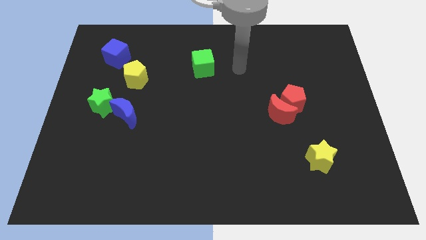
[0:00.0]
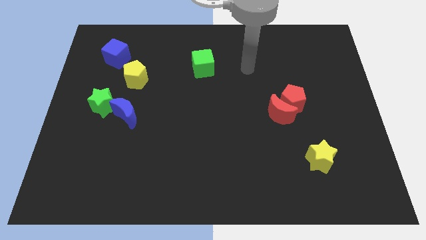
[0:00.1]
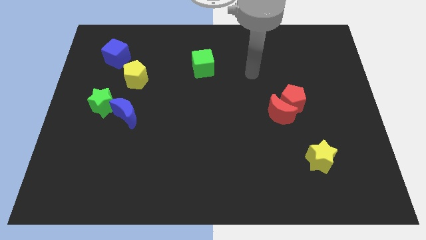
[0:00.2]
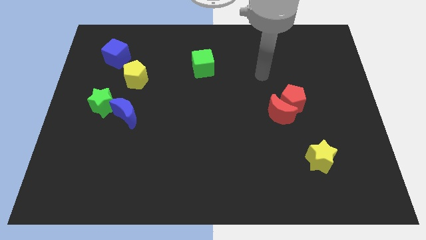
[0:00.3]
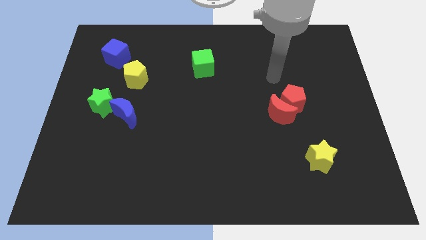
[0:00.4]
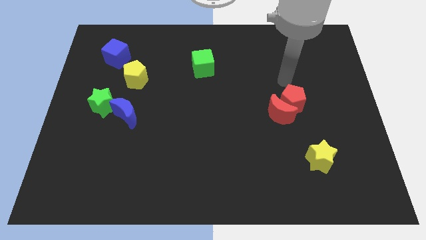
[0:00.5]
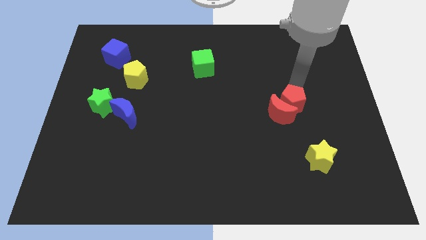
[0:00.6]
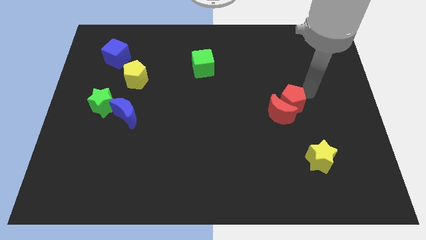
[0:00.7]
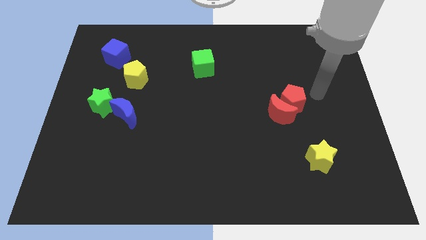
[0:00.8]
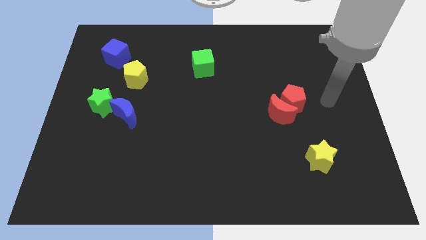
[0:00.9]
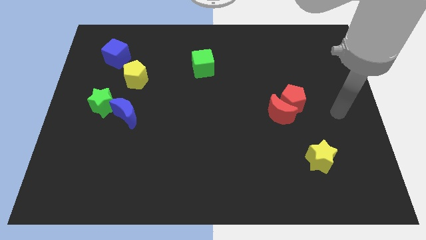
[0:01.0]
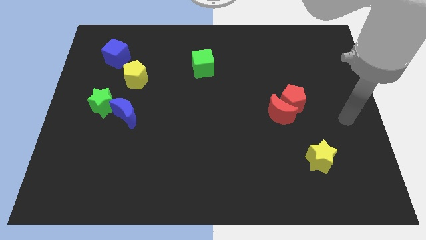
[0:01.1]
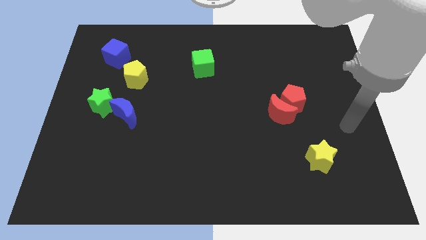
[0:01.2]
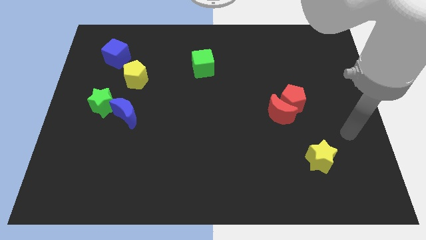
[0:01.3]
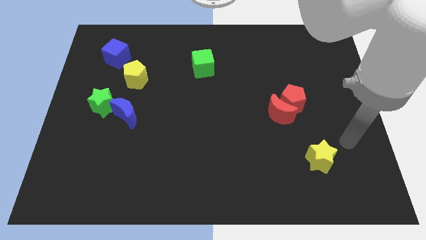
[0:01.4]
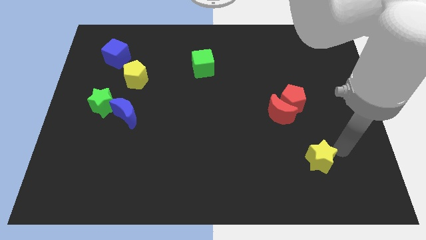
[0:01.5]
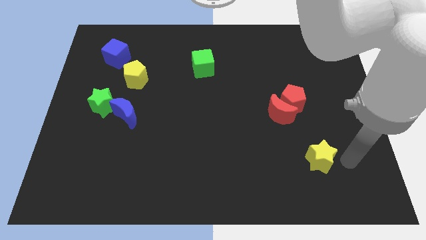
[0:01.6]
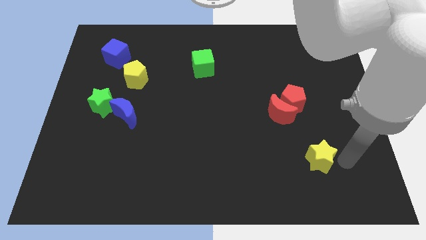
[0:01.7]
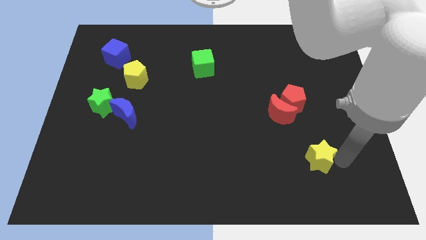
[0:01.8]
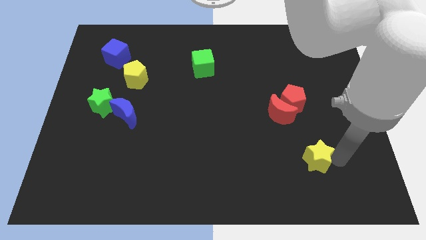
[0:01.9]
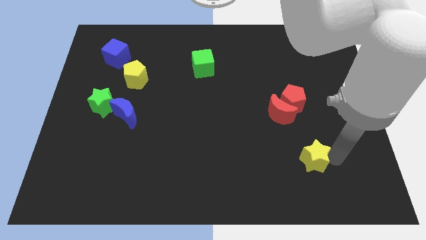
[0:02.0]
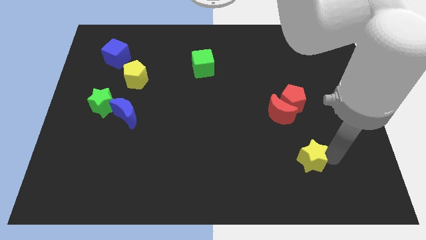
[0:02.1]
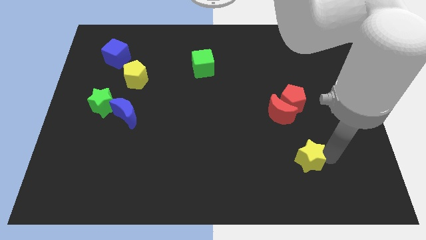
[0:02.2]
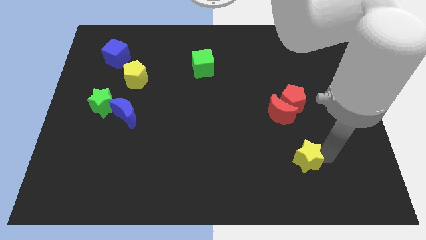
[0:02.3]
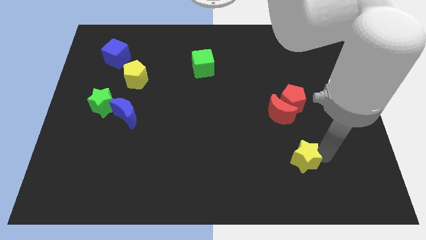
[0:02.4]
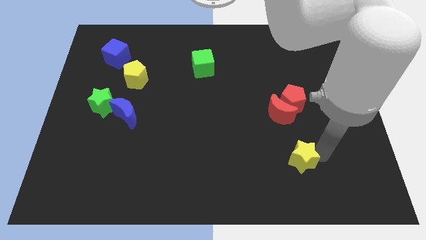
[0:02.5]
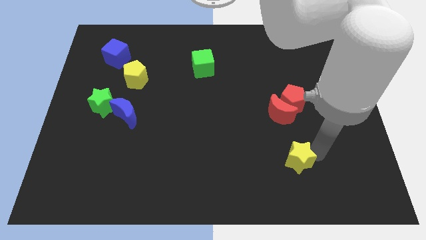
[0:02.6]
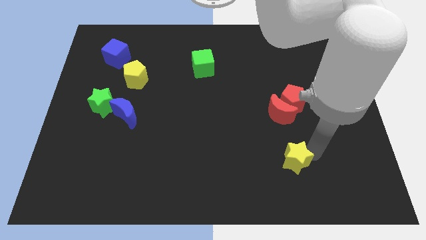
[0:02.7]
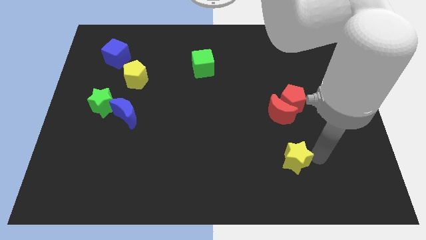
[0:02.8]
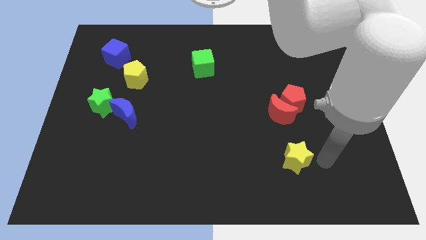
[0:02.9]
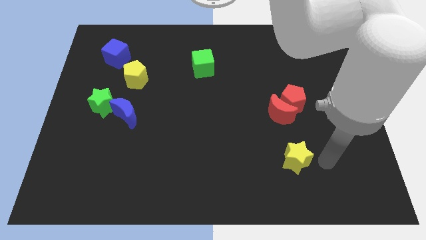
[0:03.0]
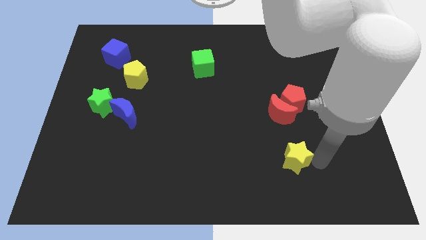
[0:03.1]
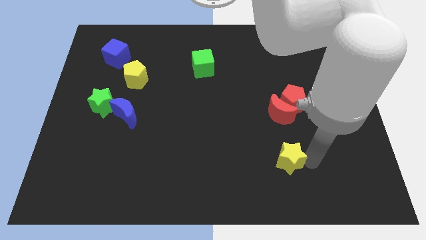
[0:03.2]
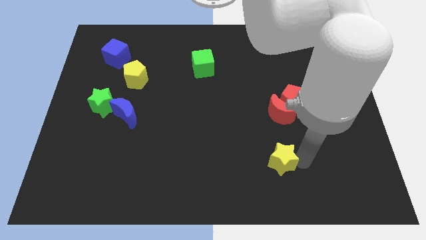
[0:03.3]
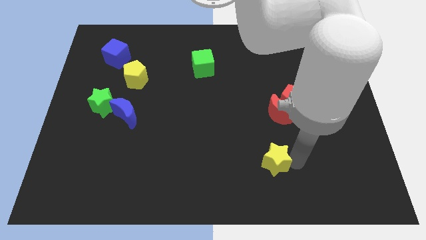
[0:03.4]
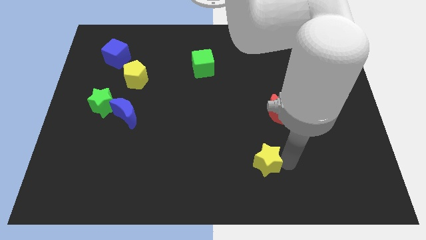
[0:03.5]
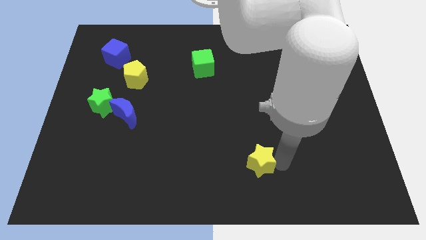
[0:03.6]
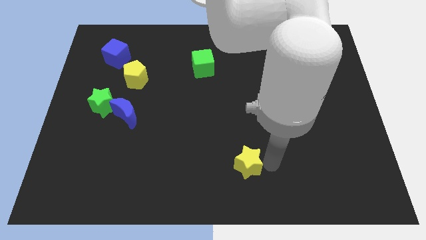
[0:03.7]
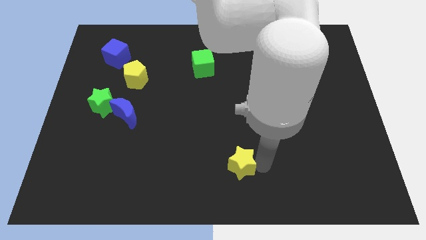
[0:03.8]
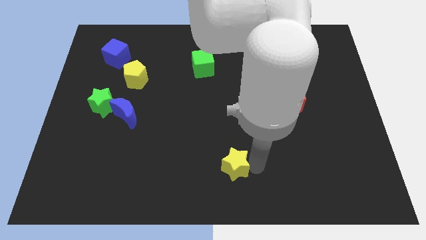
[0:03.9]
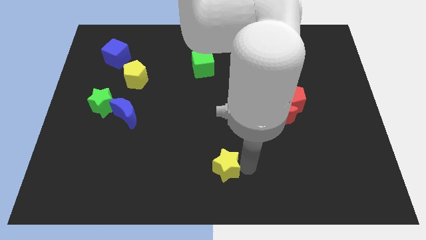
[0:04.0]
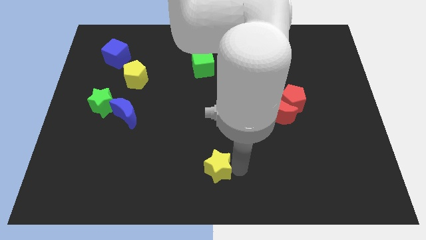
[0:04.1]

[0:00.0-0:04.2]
move the yellow star left

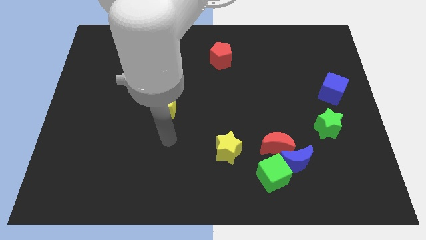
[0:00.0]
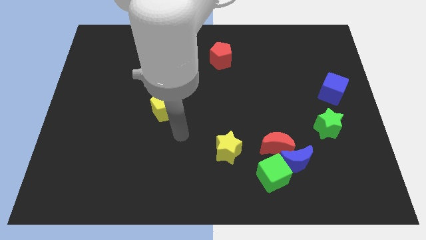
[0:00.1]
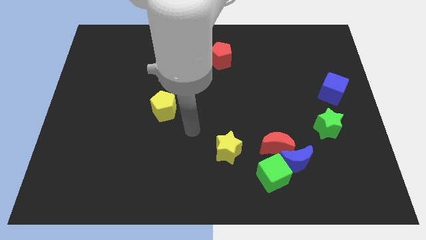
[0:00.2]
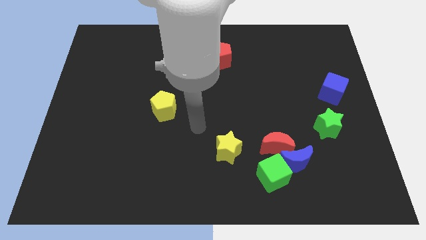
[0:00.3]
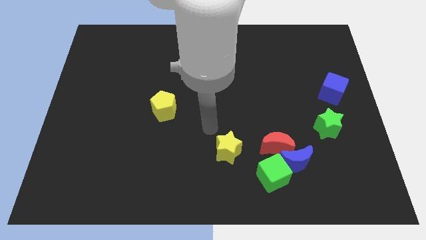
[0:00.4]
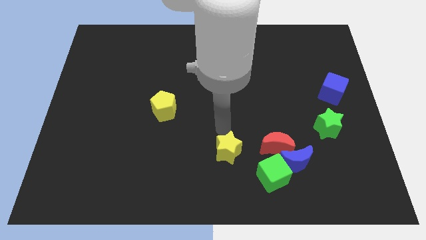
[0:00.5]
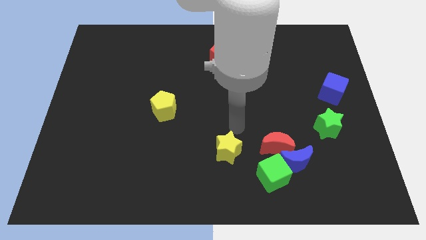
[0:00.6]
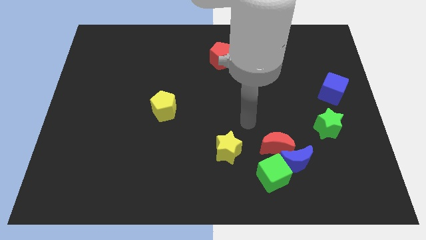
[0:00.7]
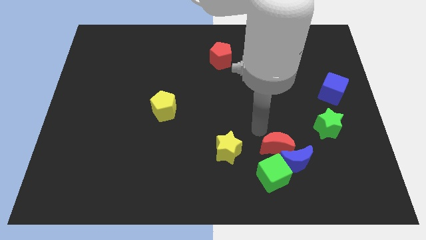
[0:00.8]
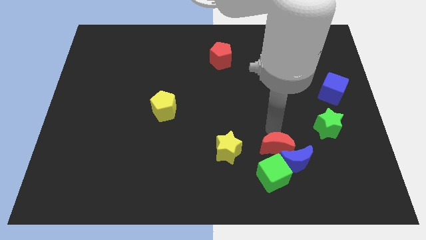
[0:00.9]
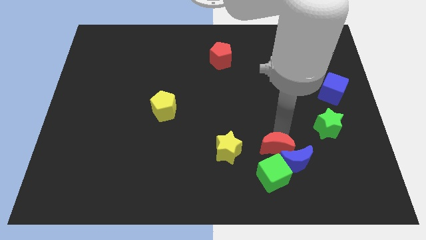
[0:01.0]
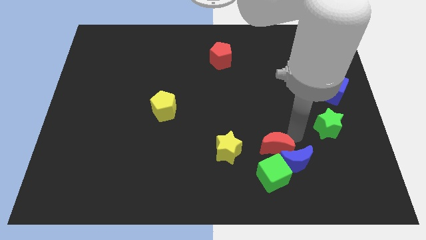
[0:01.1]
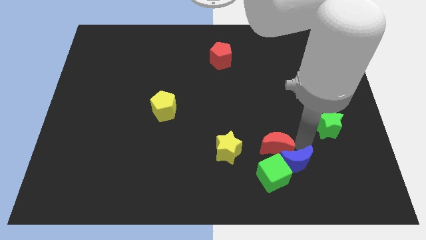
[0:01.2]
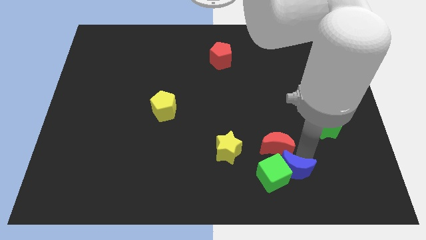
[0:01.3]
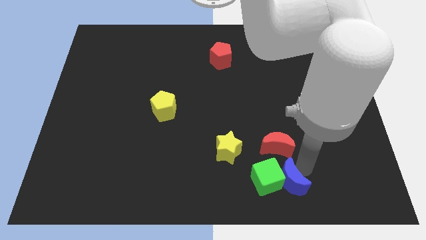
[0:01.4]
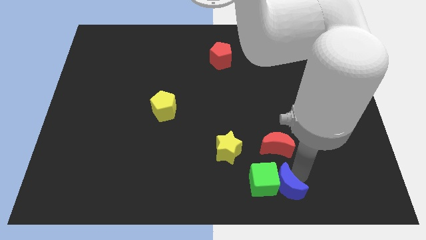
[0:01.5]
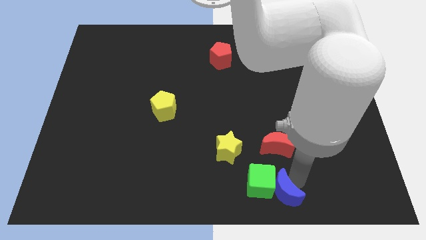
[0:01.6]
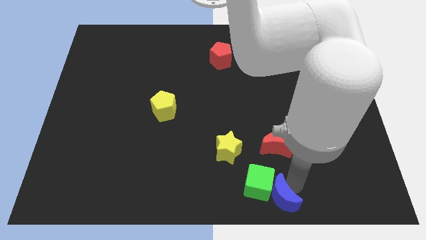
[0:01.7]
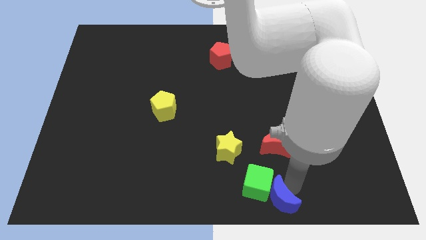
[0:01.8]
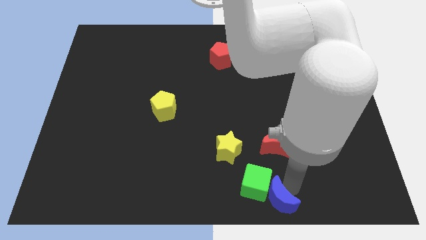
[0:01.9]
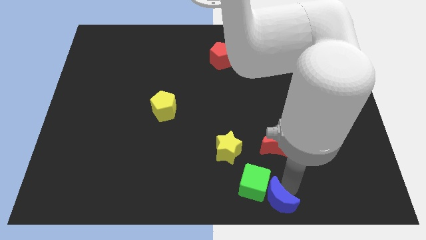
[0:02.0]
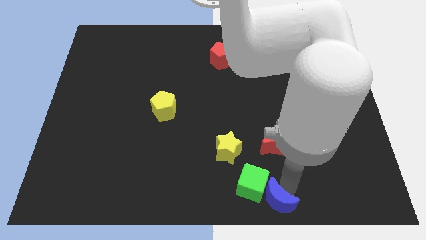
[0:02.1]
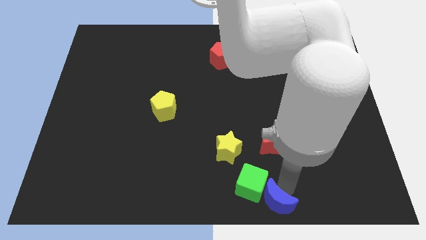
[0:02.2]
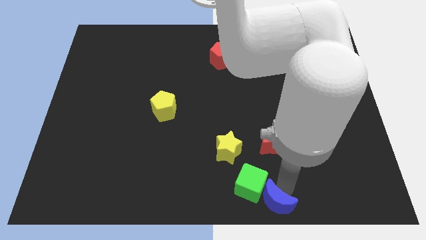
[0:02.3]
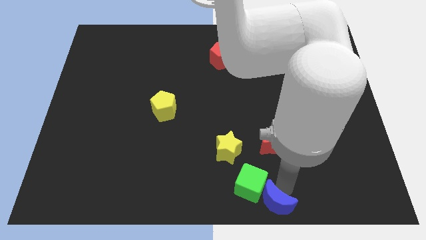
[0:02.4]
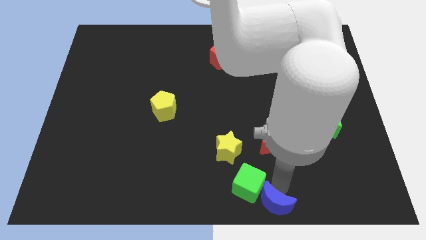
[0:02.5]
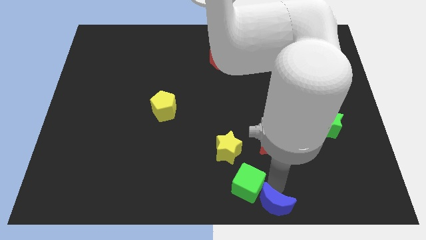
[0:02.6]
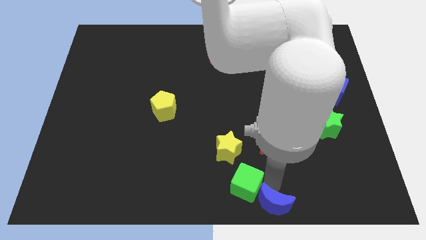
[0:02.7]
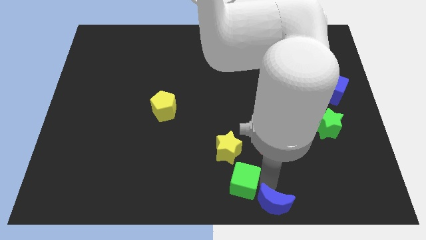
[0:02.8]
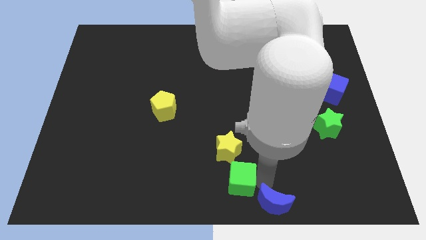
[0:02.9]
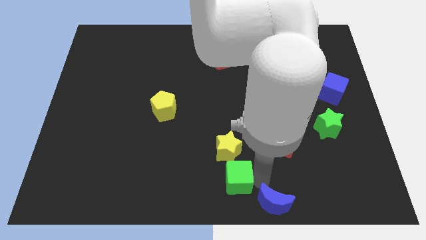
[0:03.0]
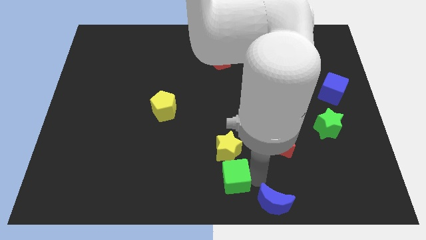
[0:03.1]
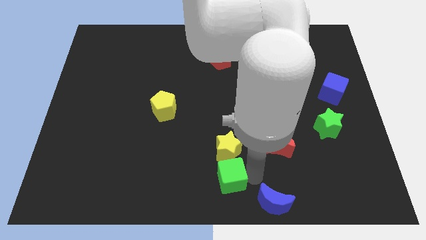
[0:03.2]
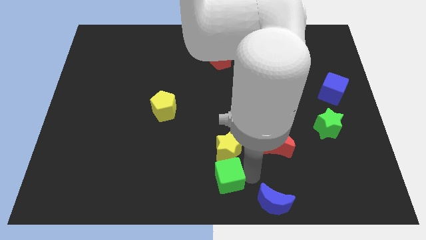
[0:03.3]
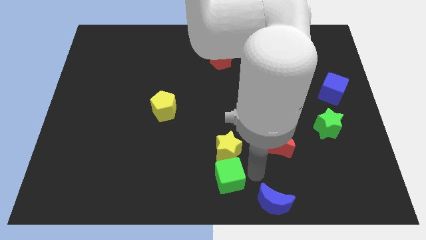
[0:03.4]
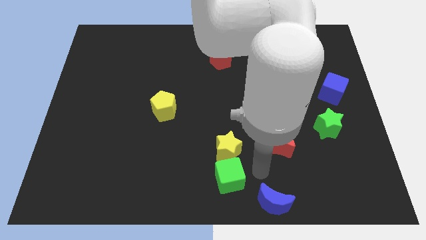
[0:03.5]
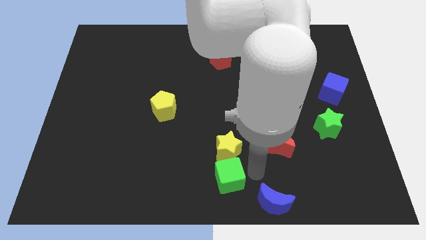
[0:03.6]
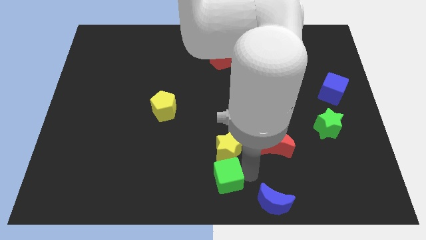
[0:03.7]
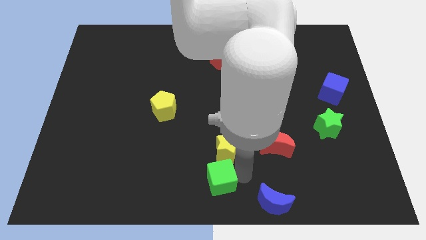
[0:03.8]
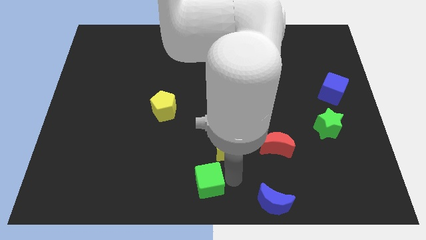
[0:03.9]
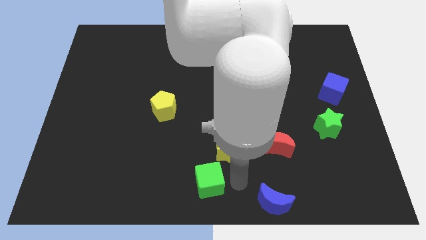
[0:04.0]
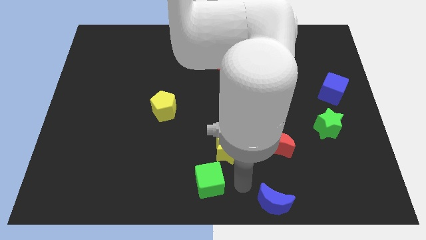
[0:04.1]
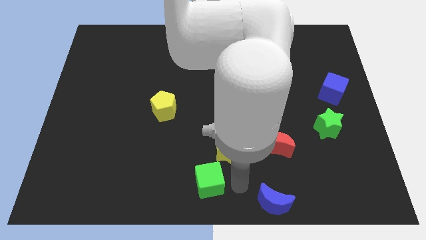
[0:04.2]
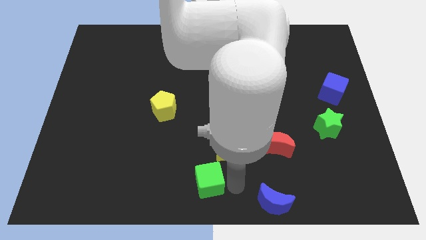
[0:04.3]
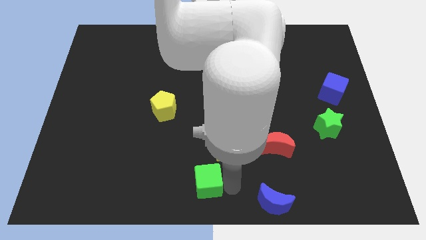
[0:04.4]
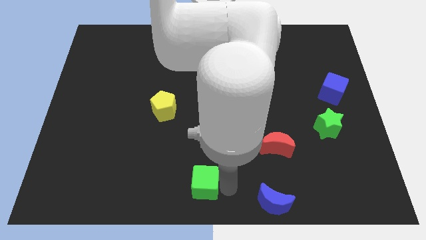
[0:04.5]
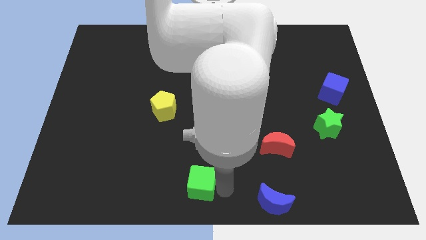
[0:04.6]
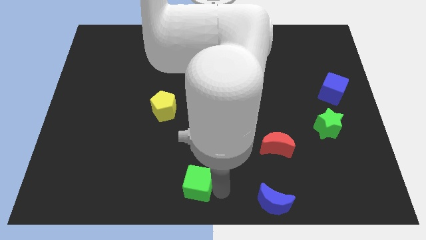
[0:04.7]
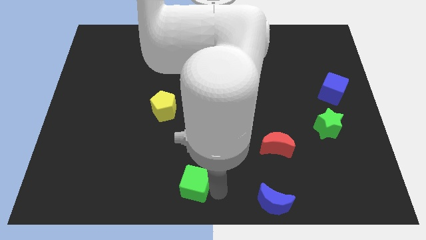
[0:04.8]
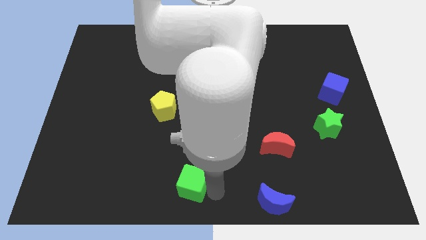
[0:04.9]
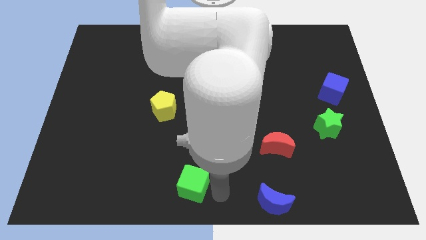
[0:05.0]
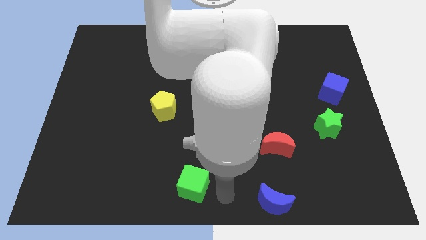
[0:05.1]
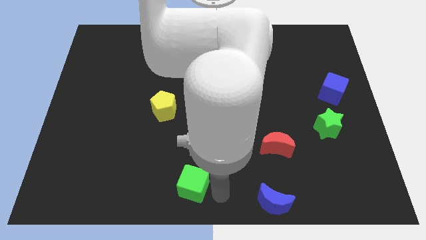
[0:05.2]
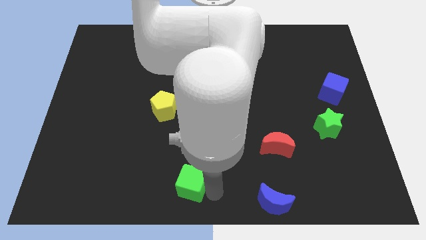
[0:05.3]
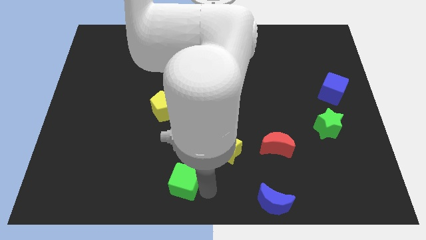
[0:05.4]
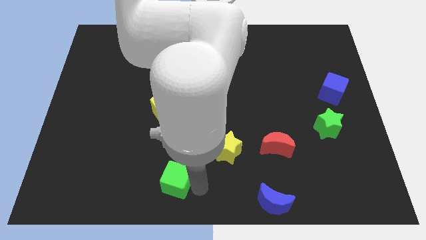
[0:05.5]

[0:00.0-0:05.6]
move the green cube left
